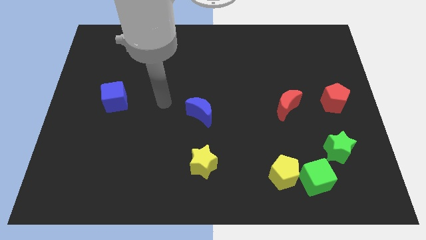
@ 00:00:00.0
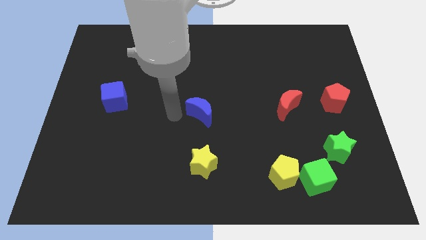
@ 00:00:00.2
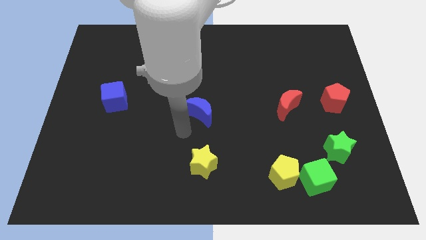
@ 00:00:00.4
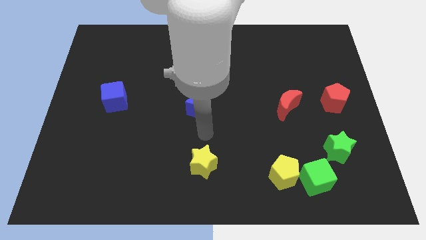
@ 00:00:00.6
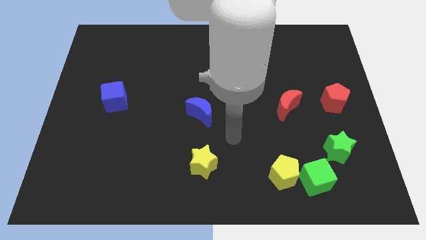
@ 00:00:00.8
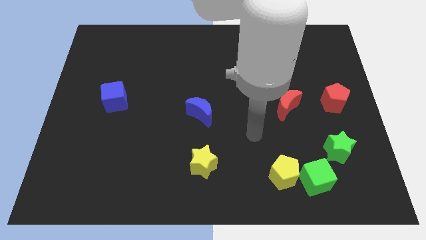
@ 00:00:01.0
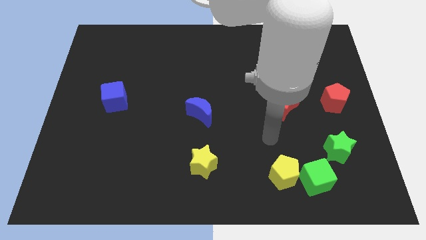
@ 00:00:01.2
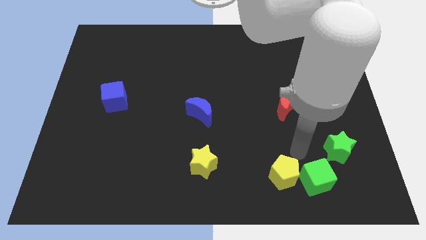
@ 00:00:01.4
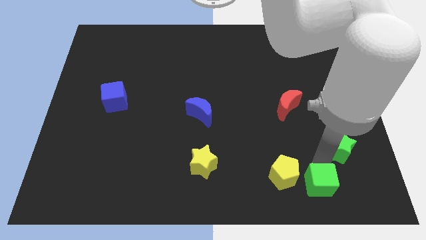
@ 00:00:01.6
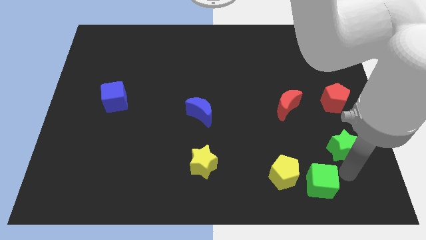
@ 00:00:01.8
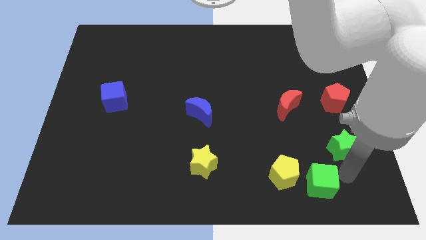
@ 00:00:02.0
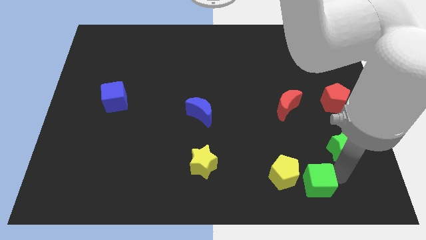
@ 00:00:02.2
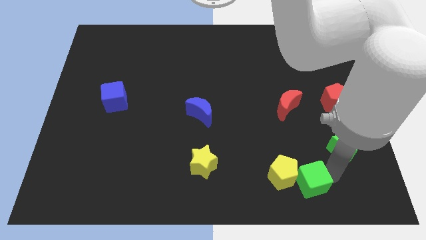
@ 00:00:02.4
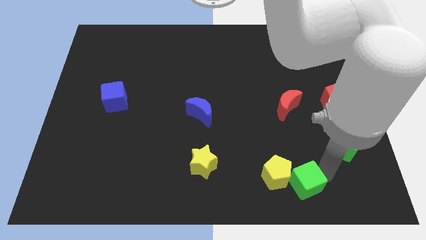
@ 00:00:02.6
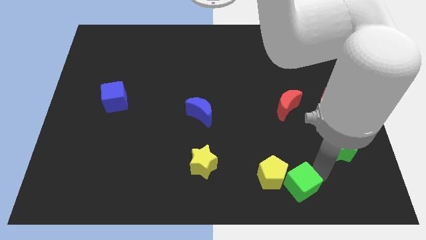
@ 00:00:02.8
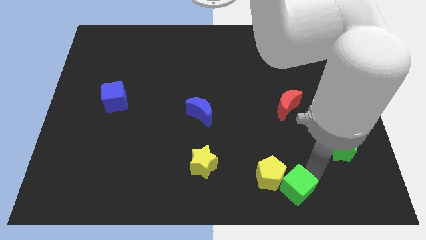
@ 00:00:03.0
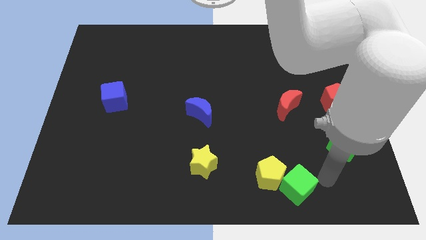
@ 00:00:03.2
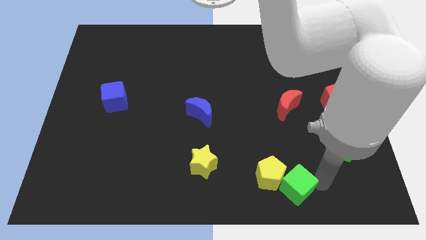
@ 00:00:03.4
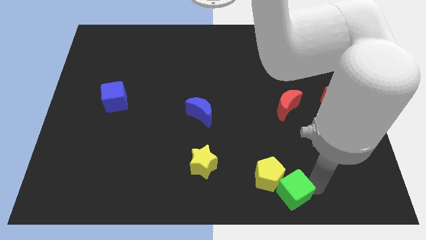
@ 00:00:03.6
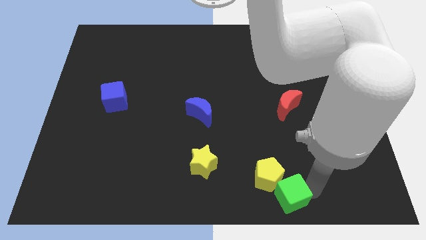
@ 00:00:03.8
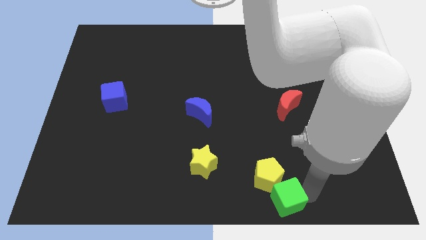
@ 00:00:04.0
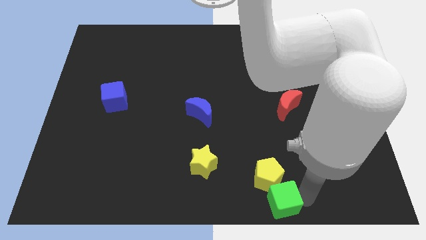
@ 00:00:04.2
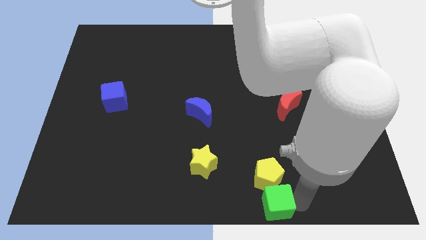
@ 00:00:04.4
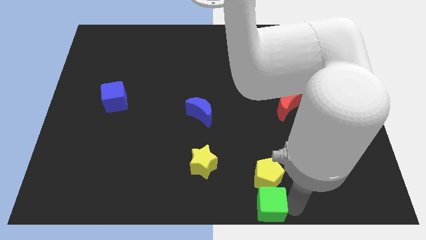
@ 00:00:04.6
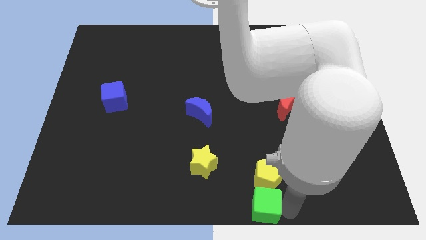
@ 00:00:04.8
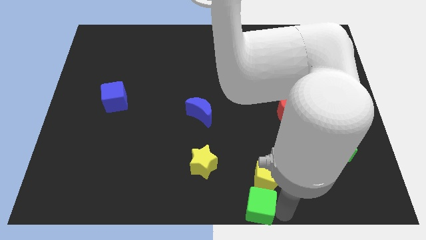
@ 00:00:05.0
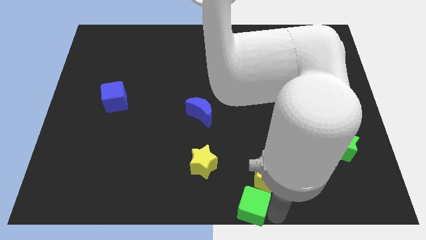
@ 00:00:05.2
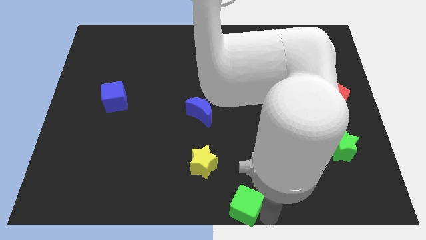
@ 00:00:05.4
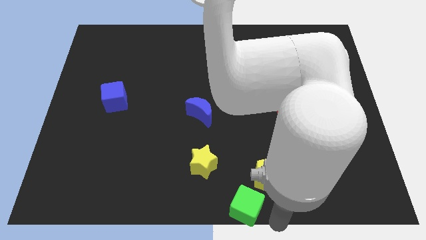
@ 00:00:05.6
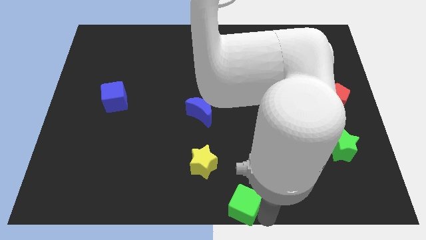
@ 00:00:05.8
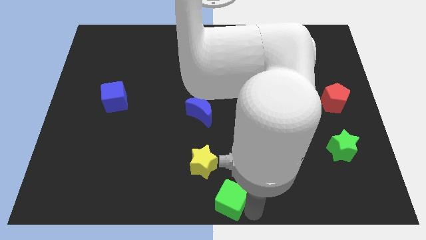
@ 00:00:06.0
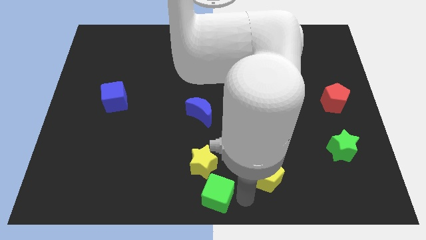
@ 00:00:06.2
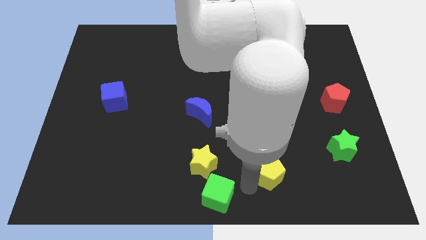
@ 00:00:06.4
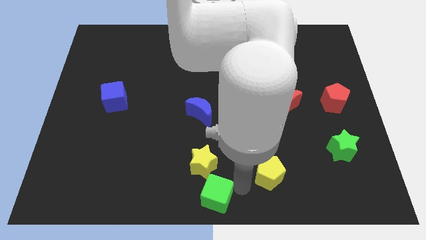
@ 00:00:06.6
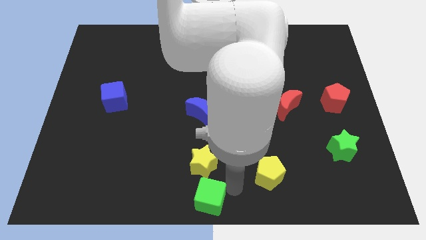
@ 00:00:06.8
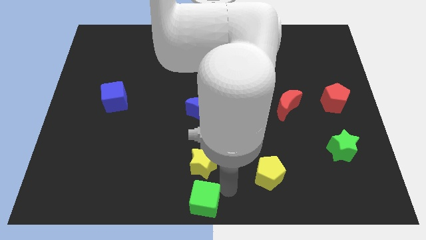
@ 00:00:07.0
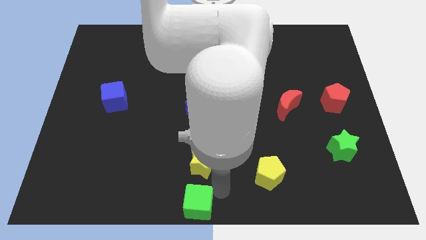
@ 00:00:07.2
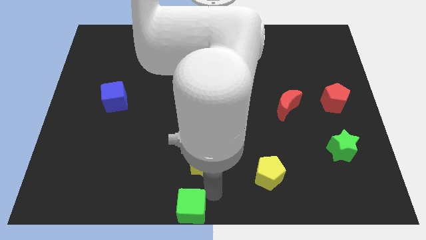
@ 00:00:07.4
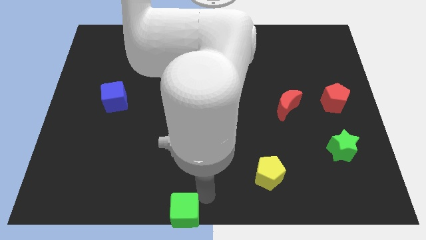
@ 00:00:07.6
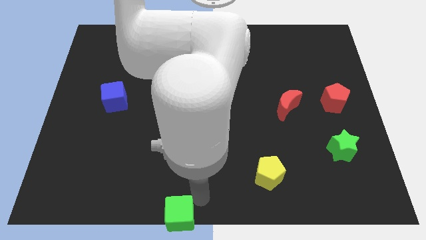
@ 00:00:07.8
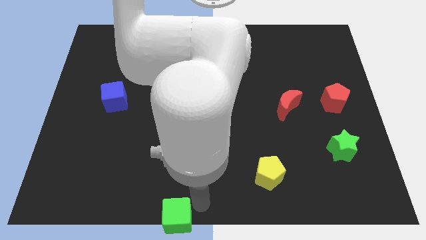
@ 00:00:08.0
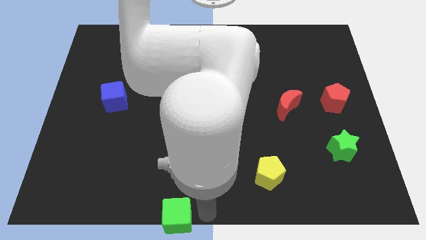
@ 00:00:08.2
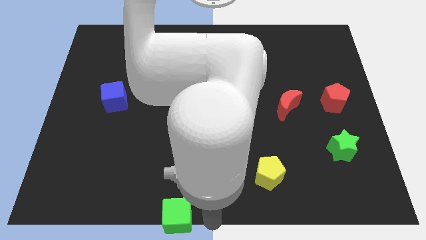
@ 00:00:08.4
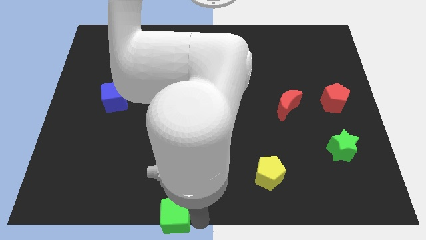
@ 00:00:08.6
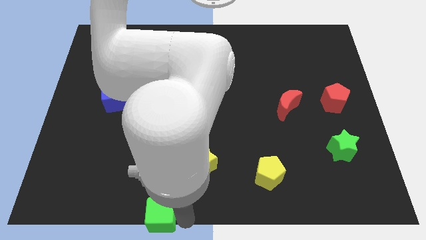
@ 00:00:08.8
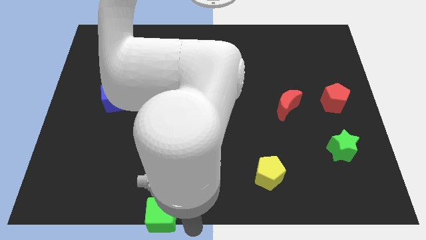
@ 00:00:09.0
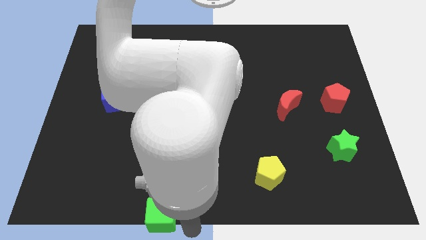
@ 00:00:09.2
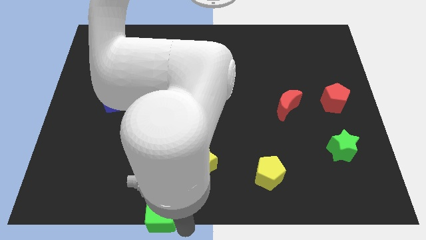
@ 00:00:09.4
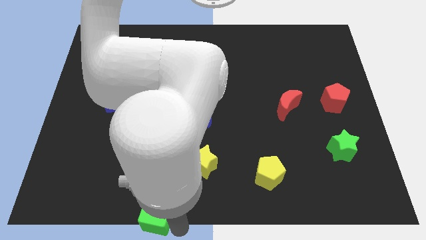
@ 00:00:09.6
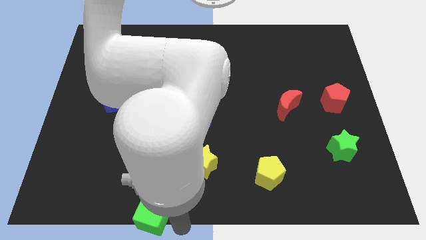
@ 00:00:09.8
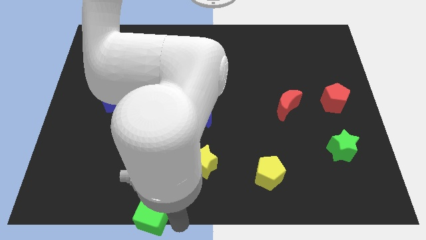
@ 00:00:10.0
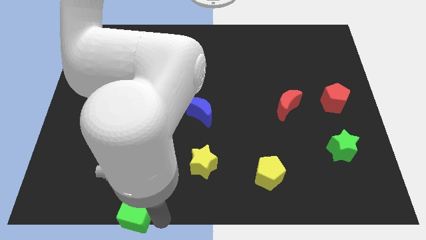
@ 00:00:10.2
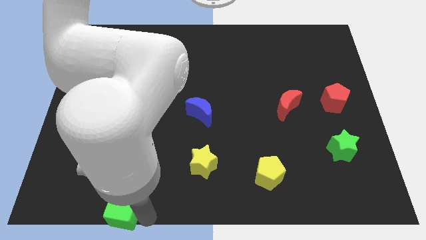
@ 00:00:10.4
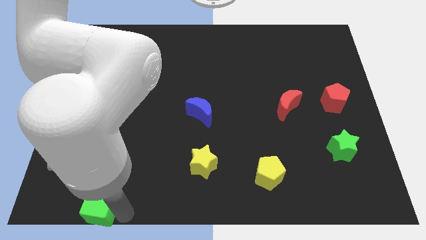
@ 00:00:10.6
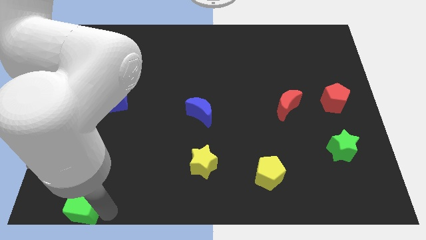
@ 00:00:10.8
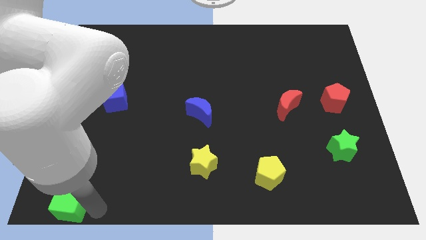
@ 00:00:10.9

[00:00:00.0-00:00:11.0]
put the green cube to the bottom left of the board
